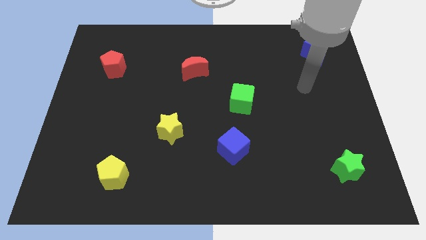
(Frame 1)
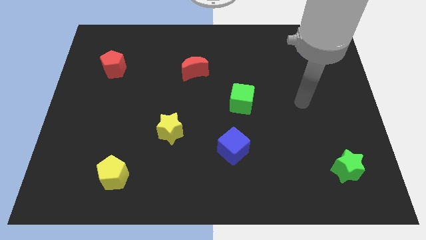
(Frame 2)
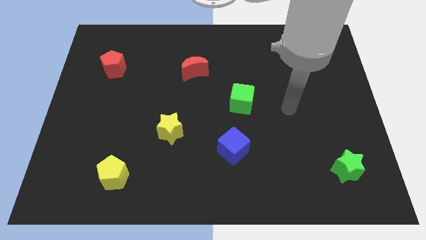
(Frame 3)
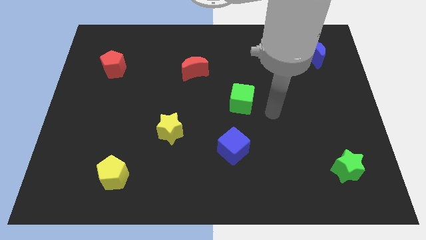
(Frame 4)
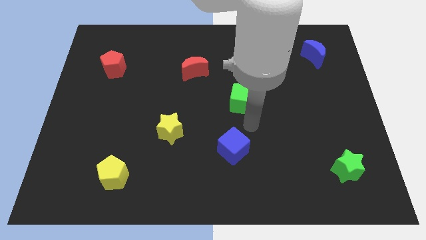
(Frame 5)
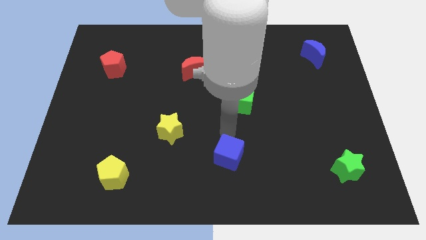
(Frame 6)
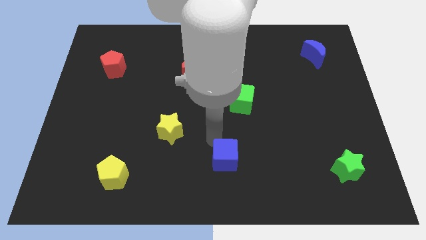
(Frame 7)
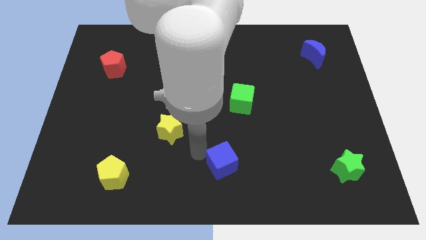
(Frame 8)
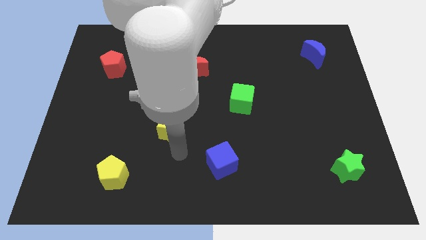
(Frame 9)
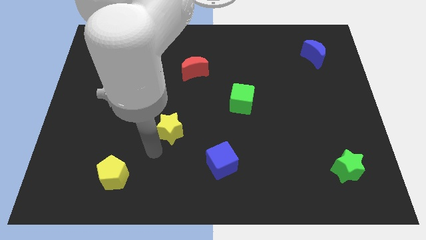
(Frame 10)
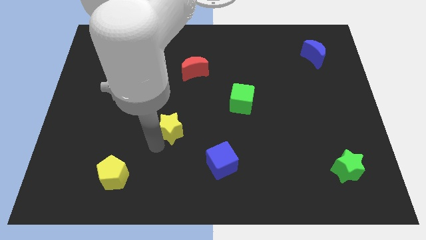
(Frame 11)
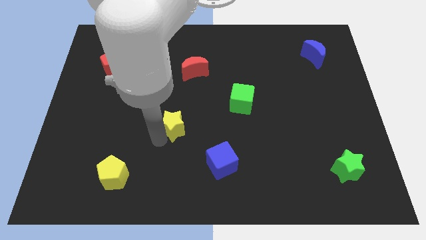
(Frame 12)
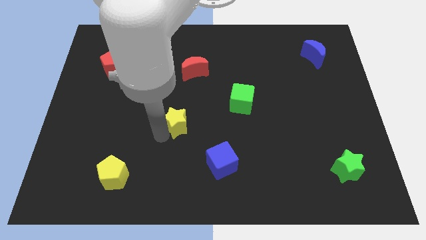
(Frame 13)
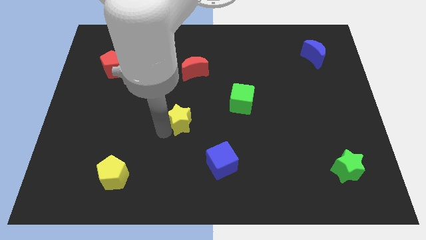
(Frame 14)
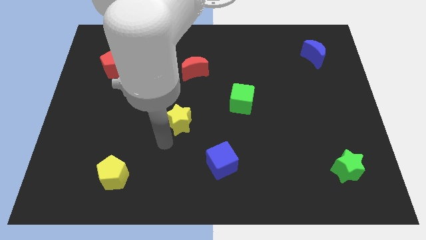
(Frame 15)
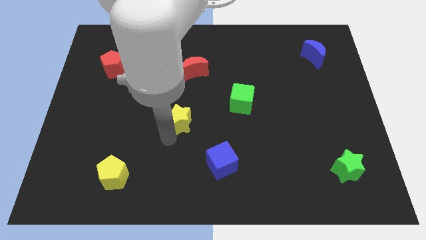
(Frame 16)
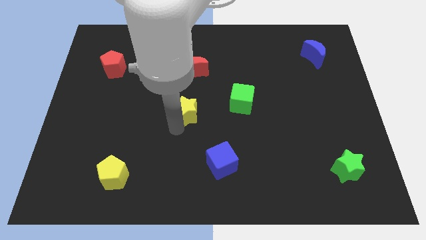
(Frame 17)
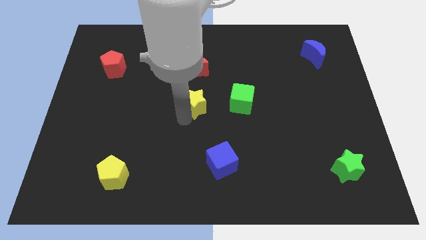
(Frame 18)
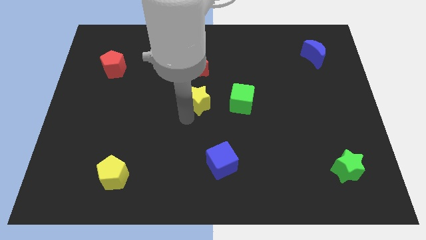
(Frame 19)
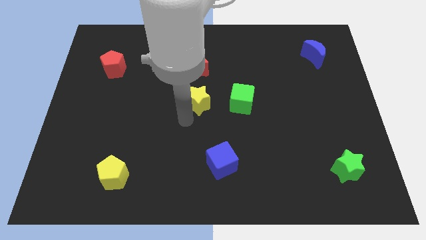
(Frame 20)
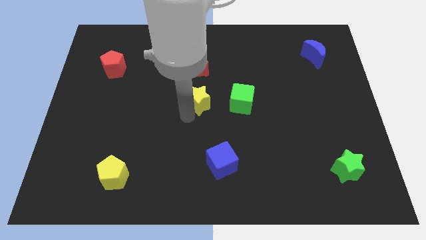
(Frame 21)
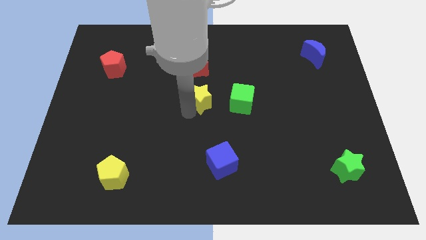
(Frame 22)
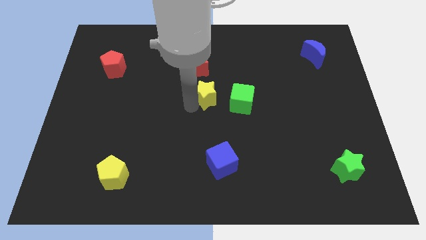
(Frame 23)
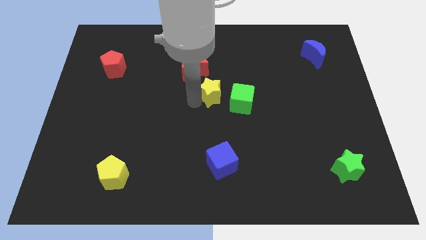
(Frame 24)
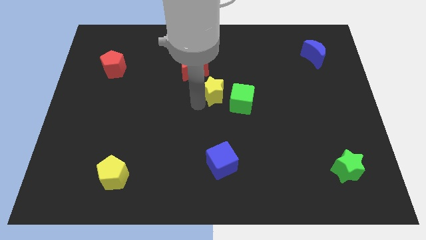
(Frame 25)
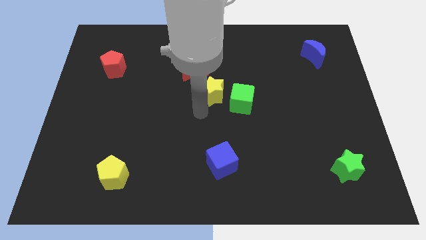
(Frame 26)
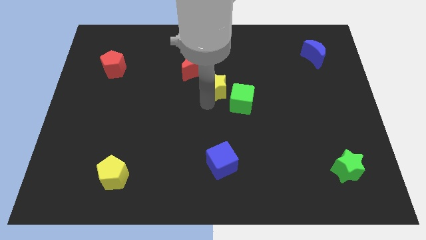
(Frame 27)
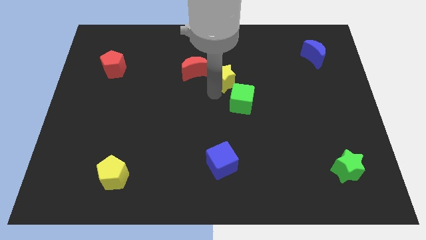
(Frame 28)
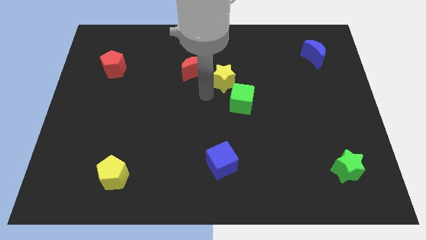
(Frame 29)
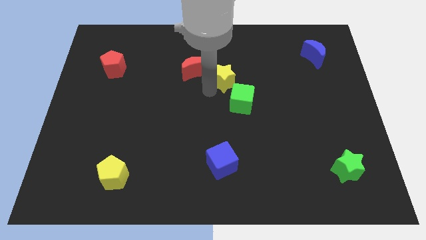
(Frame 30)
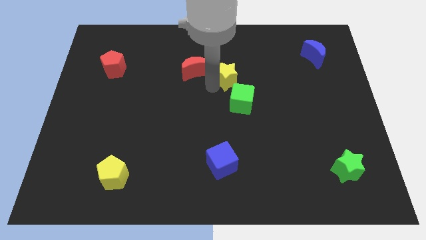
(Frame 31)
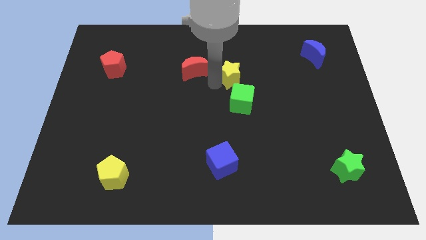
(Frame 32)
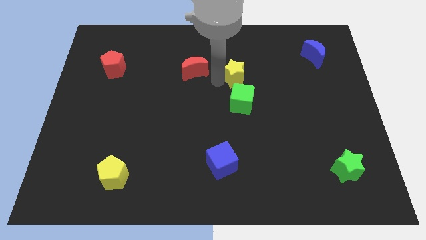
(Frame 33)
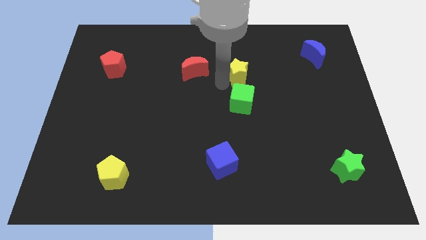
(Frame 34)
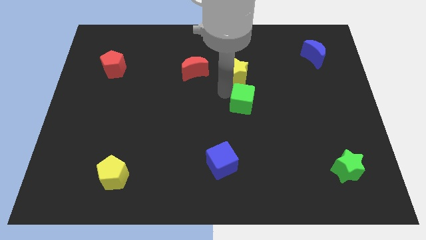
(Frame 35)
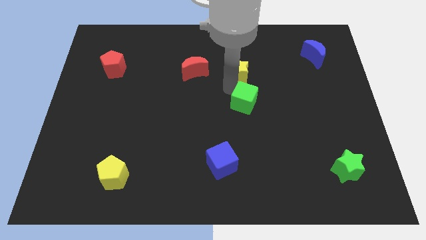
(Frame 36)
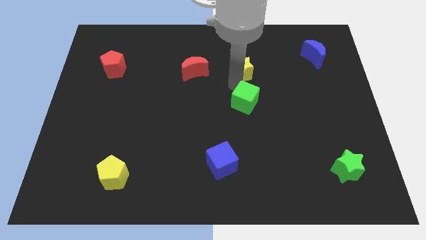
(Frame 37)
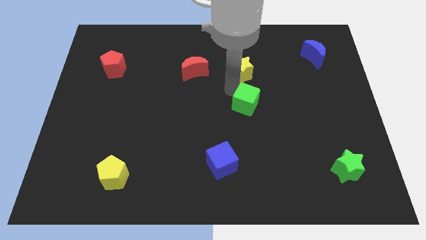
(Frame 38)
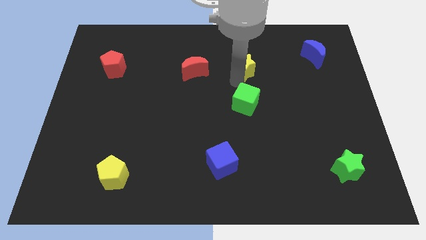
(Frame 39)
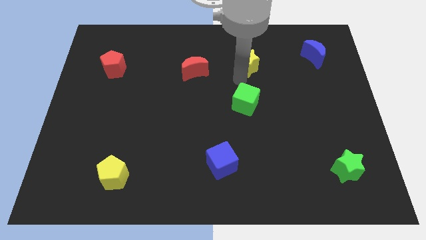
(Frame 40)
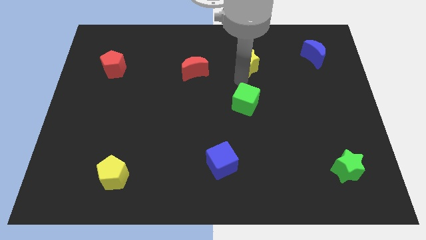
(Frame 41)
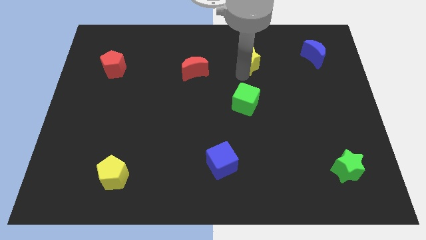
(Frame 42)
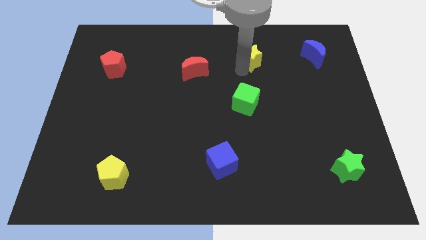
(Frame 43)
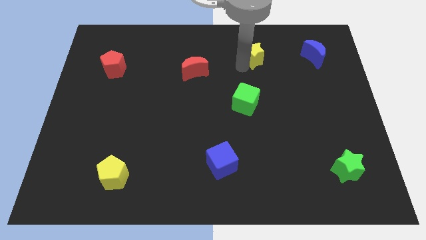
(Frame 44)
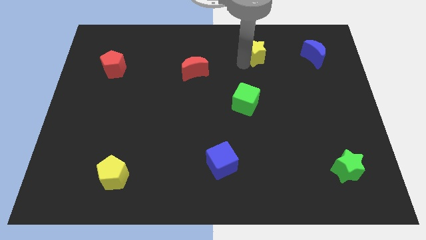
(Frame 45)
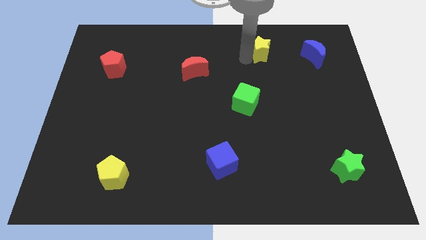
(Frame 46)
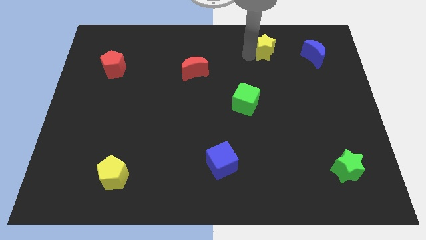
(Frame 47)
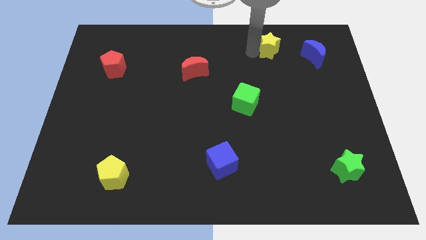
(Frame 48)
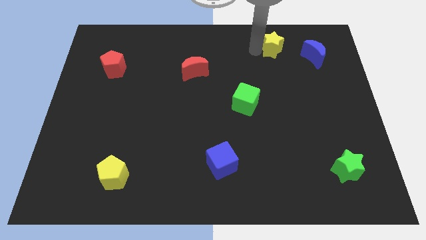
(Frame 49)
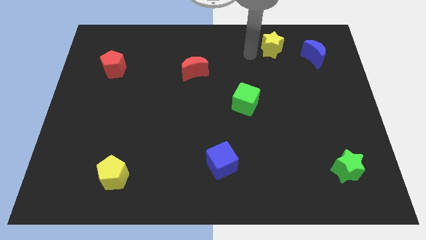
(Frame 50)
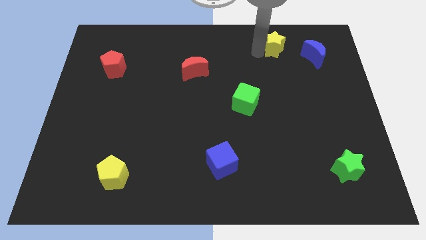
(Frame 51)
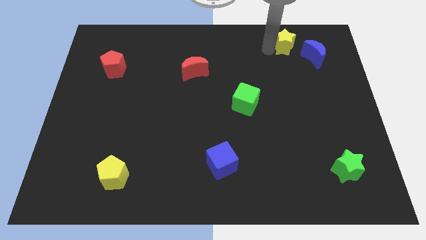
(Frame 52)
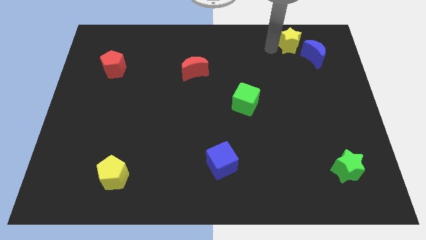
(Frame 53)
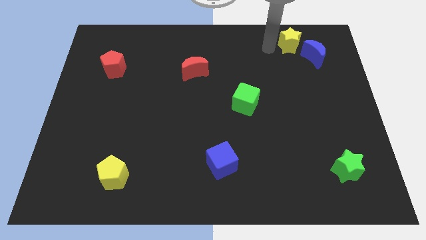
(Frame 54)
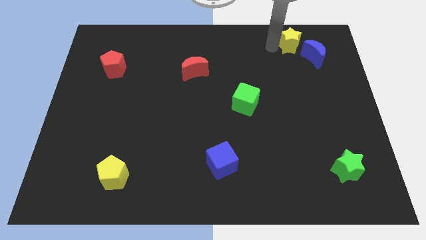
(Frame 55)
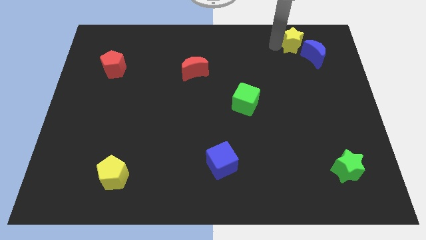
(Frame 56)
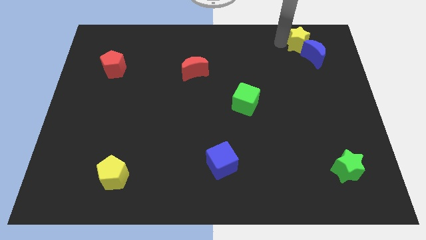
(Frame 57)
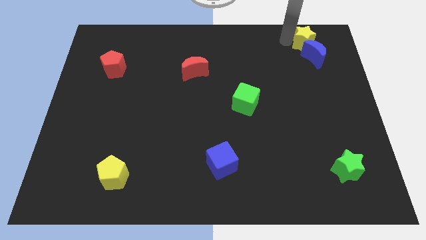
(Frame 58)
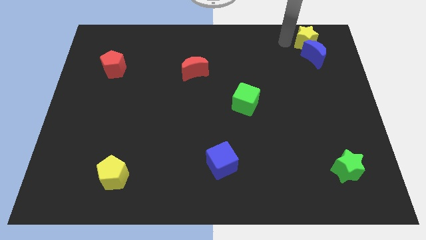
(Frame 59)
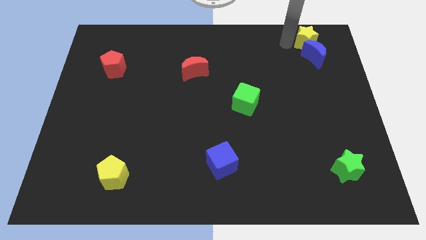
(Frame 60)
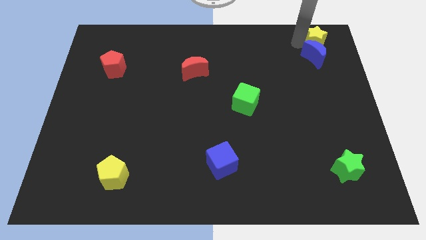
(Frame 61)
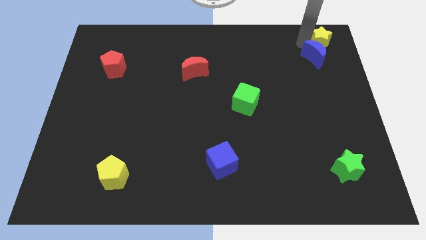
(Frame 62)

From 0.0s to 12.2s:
put the yellow star to the top right corner

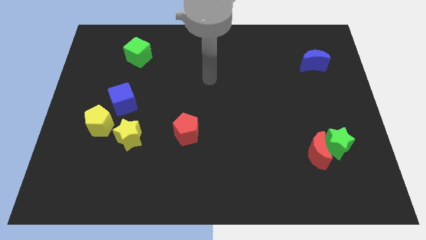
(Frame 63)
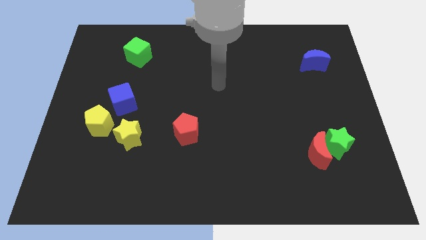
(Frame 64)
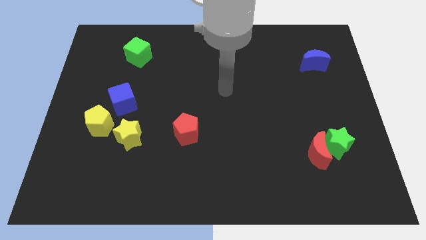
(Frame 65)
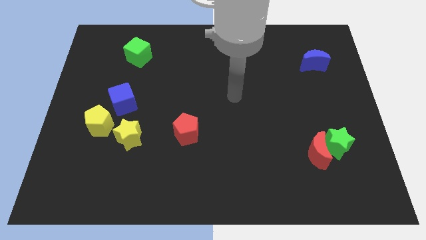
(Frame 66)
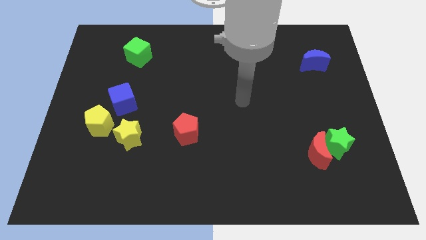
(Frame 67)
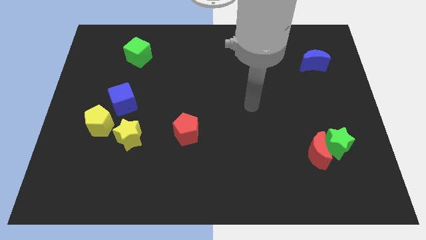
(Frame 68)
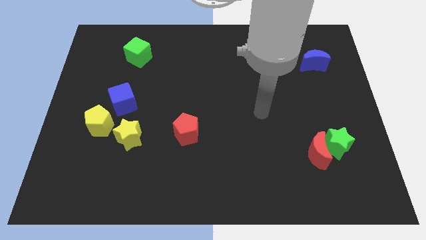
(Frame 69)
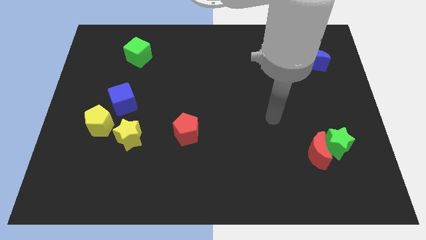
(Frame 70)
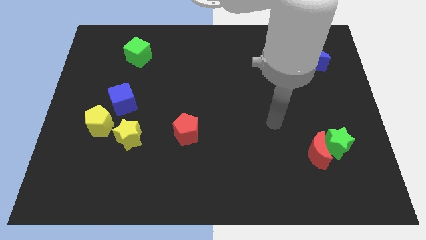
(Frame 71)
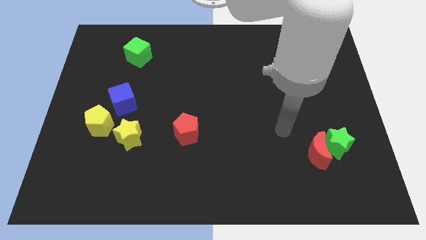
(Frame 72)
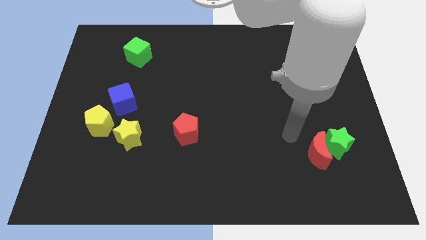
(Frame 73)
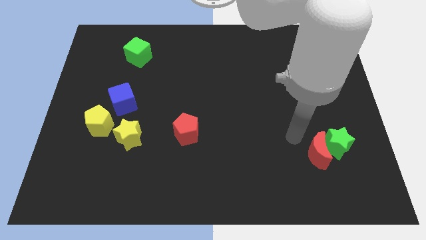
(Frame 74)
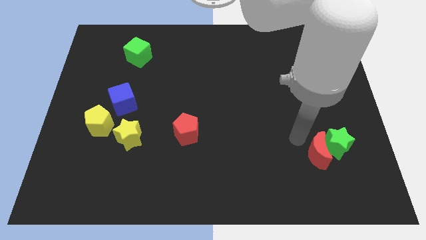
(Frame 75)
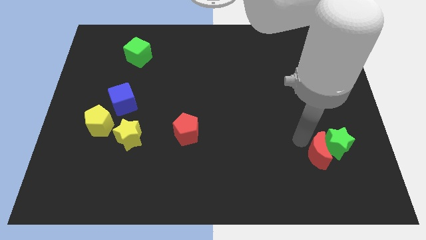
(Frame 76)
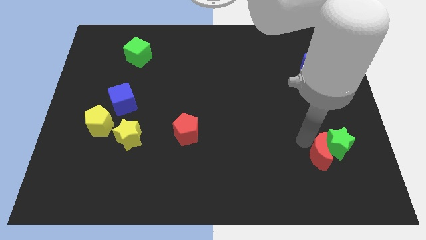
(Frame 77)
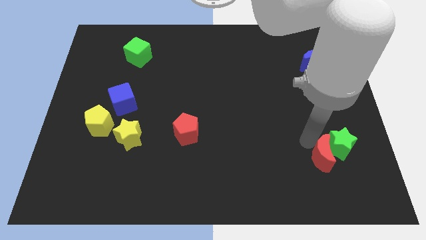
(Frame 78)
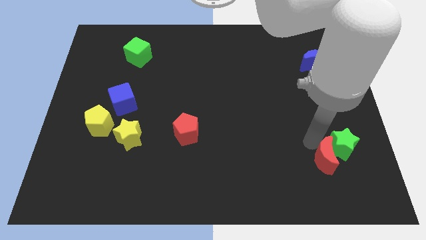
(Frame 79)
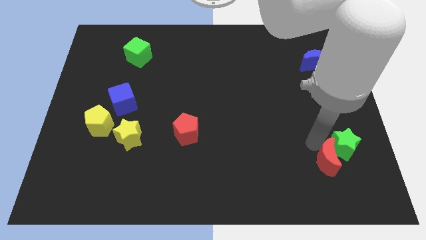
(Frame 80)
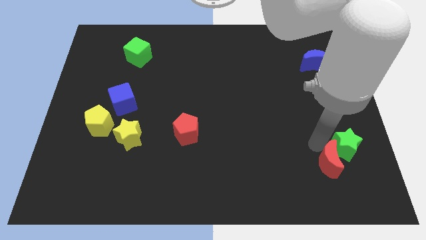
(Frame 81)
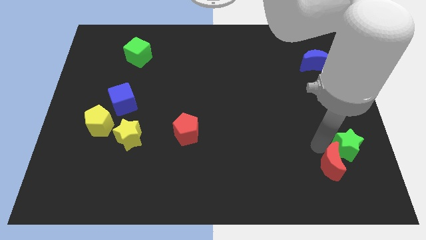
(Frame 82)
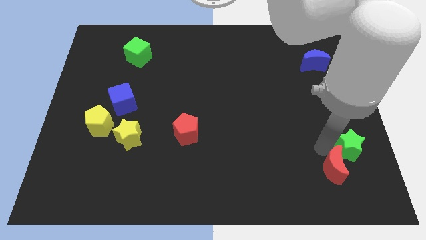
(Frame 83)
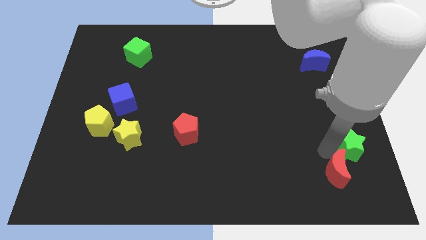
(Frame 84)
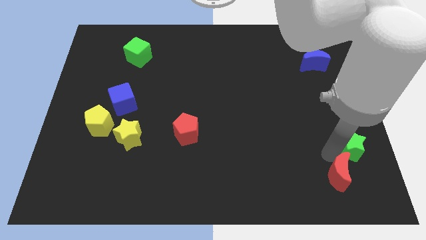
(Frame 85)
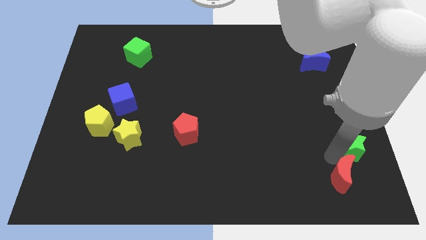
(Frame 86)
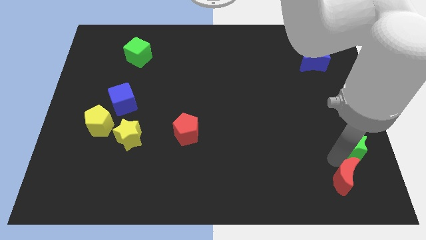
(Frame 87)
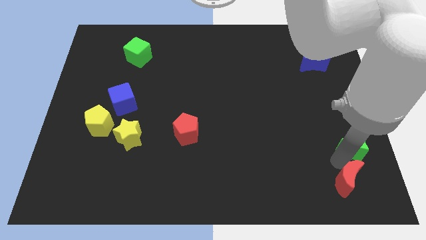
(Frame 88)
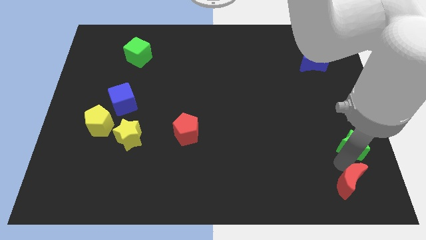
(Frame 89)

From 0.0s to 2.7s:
move the red moon to the lower right corner
